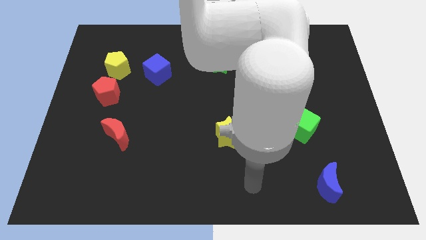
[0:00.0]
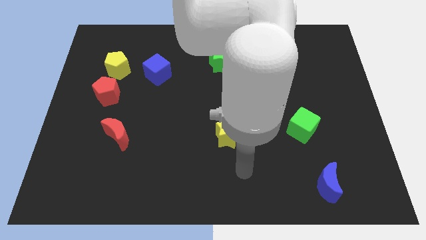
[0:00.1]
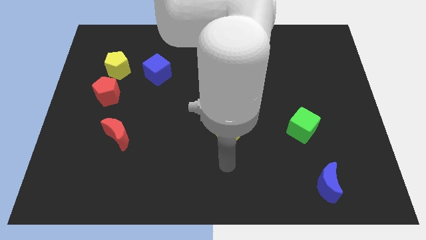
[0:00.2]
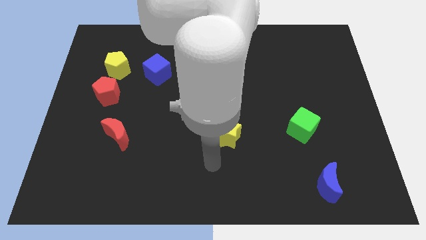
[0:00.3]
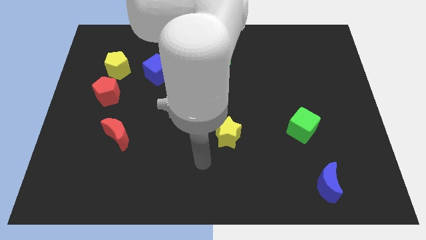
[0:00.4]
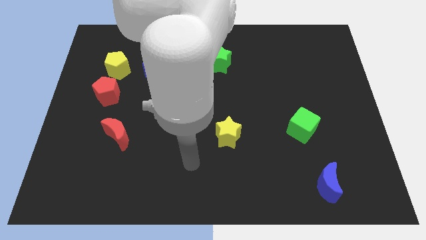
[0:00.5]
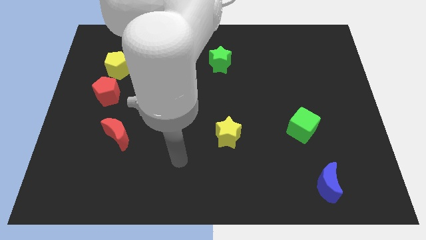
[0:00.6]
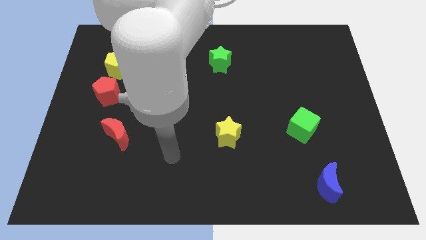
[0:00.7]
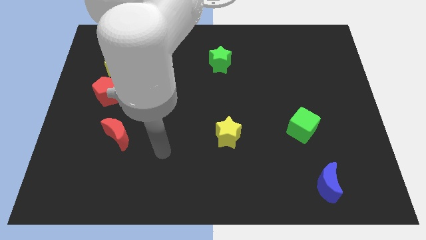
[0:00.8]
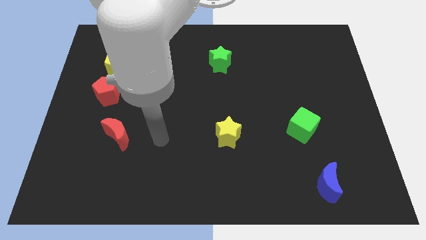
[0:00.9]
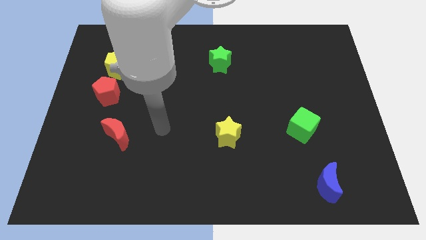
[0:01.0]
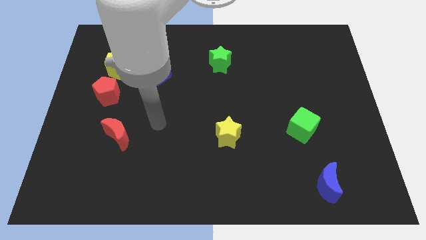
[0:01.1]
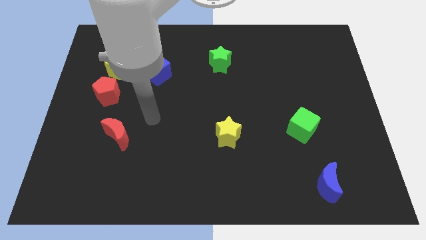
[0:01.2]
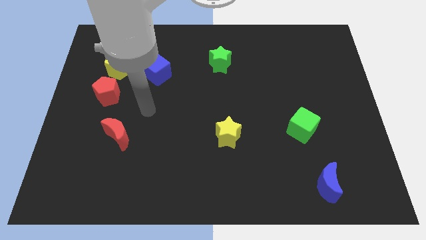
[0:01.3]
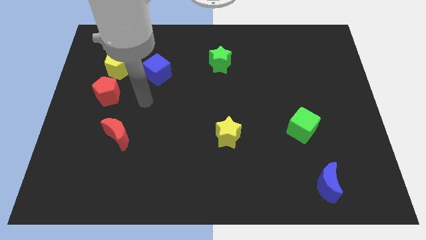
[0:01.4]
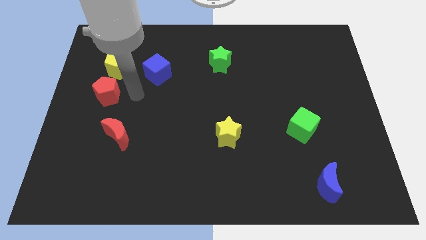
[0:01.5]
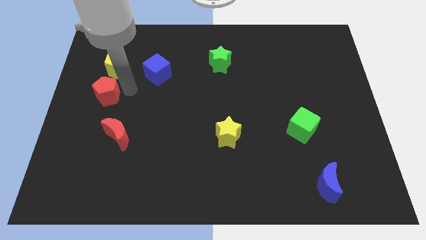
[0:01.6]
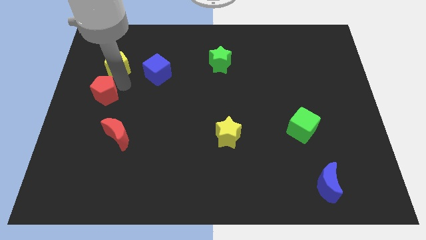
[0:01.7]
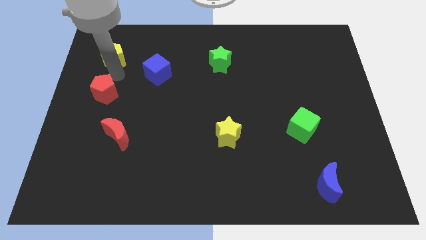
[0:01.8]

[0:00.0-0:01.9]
move the red pentagon away from the yellow pentagon

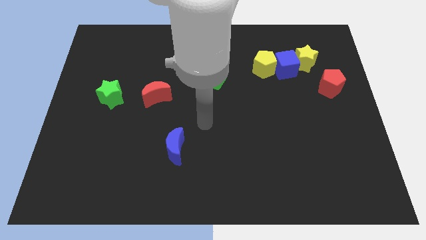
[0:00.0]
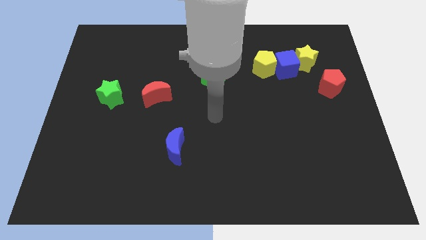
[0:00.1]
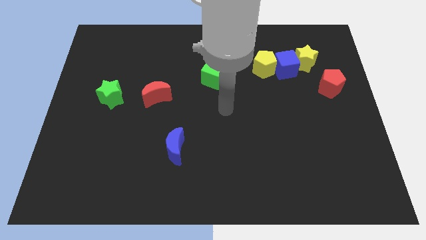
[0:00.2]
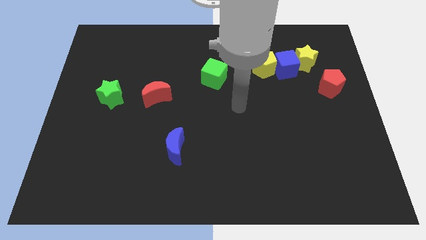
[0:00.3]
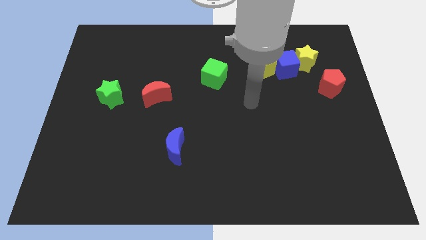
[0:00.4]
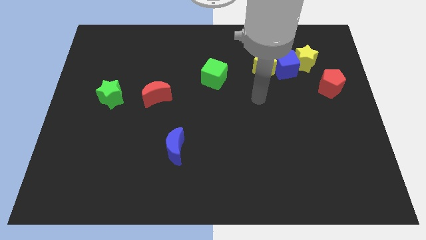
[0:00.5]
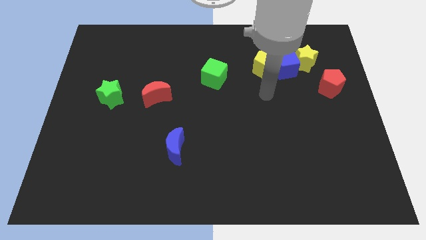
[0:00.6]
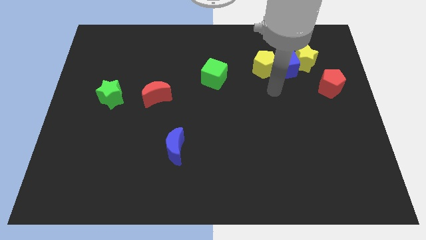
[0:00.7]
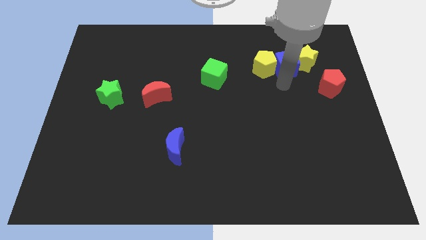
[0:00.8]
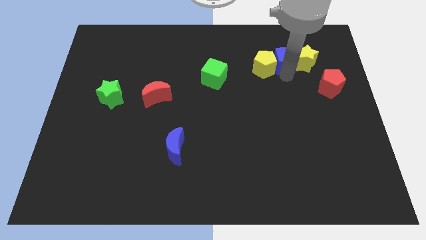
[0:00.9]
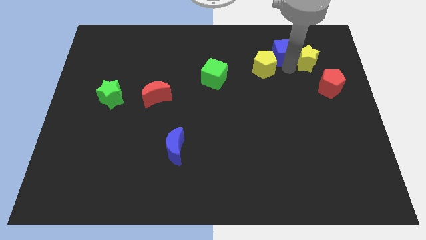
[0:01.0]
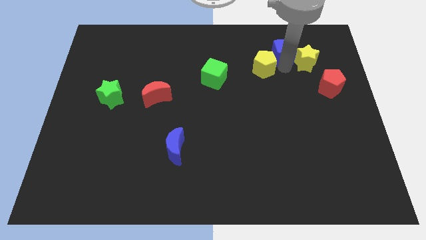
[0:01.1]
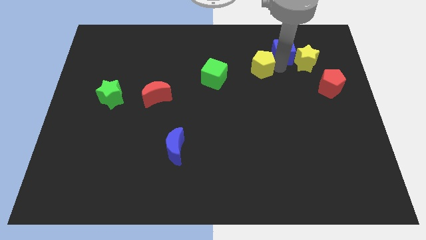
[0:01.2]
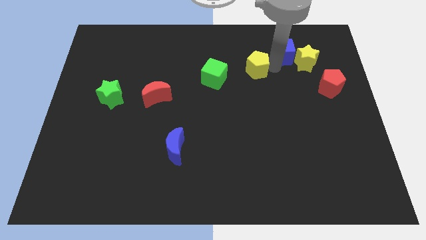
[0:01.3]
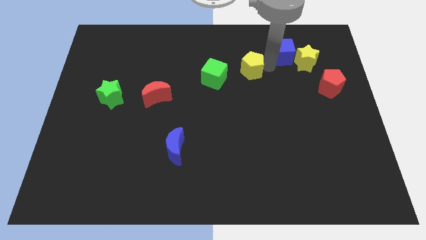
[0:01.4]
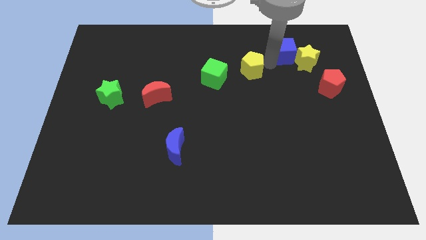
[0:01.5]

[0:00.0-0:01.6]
move the yellow pentagon away from the blue cube

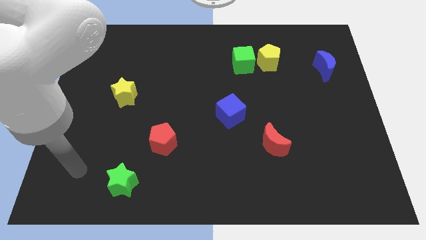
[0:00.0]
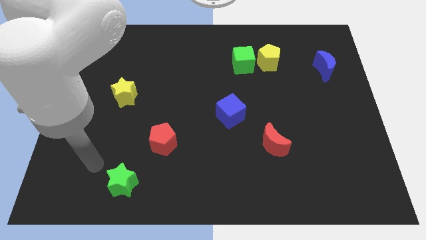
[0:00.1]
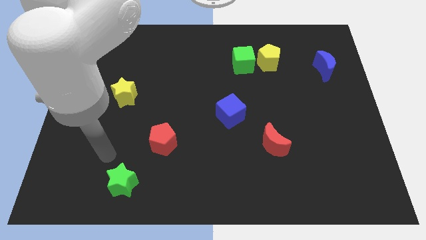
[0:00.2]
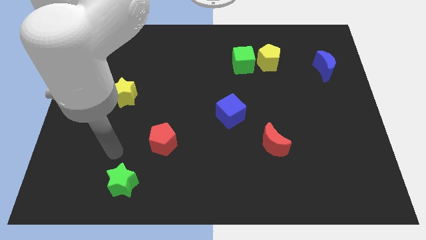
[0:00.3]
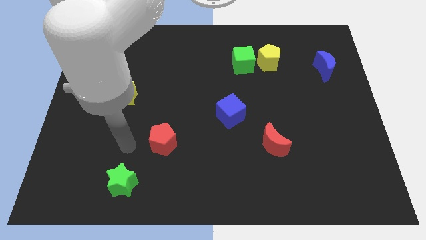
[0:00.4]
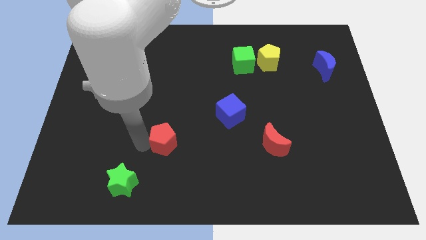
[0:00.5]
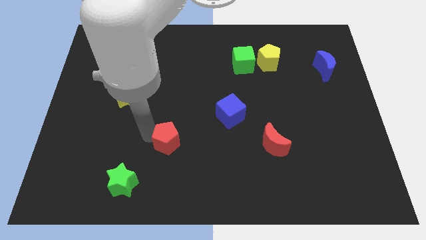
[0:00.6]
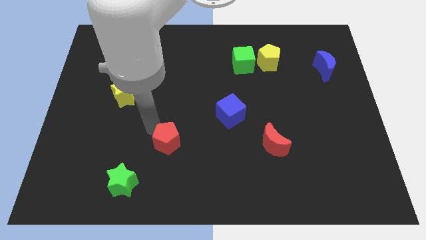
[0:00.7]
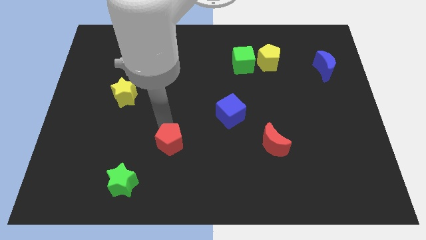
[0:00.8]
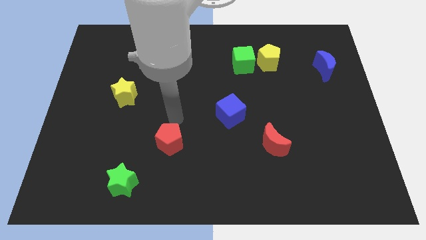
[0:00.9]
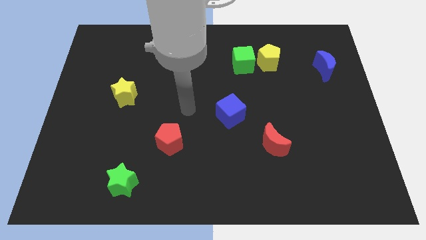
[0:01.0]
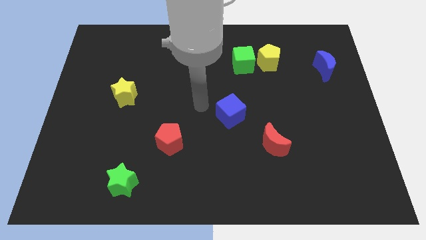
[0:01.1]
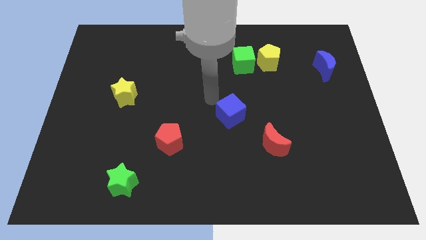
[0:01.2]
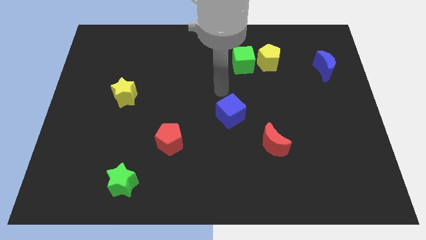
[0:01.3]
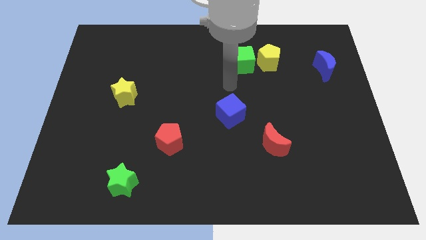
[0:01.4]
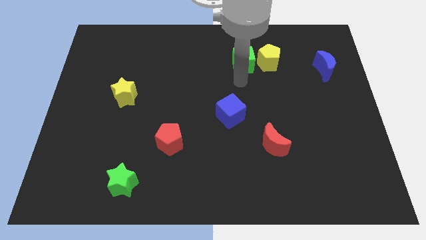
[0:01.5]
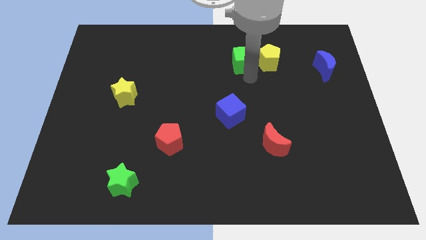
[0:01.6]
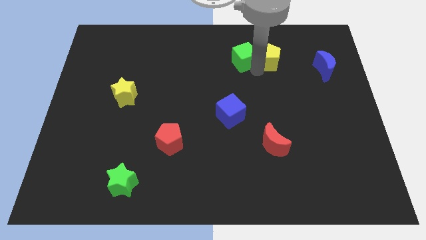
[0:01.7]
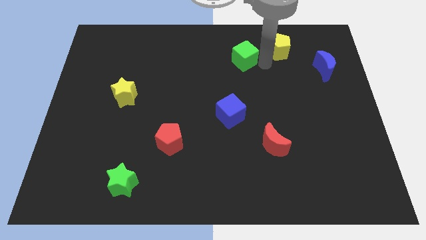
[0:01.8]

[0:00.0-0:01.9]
move the green cube away from the yellow pentagon

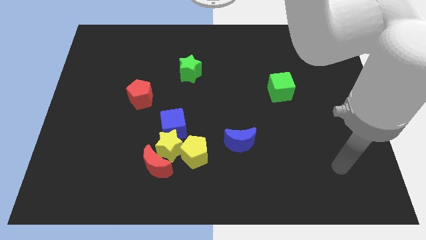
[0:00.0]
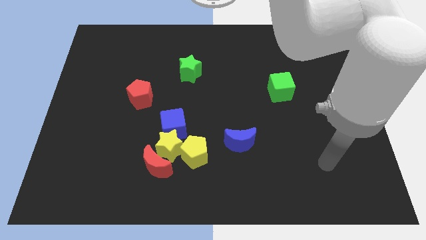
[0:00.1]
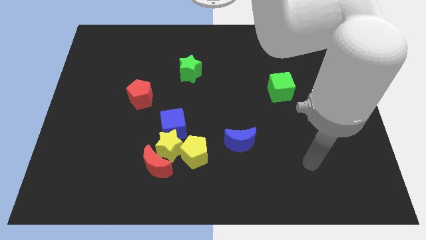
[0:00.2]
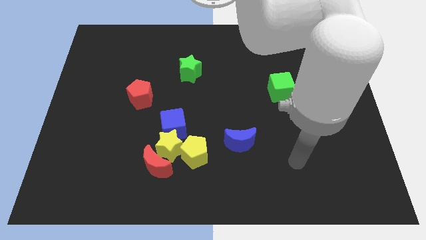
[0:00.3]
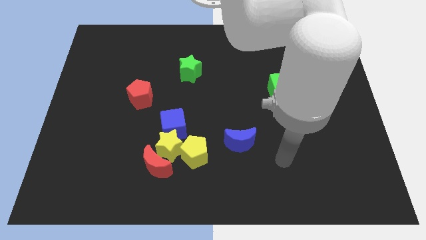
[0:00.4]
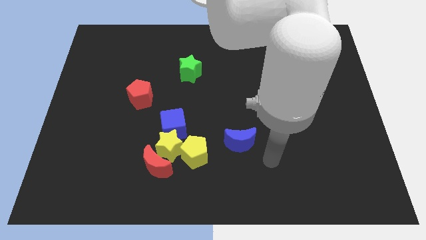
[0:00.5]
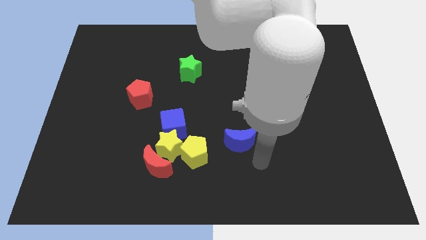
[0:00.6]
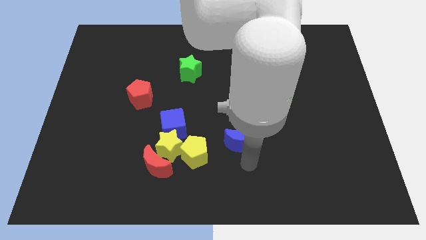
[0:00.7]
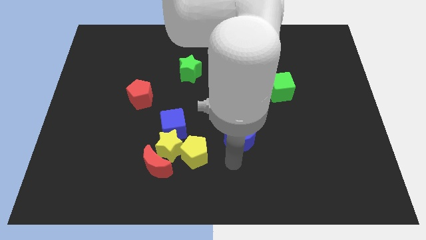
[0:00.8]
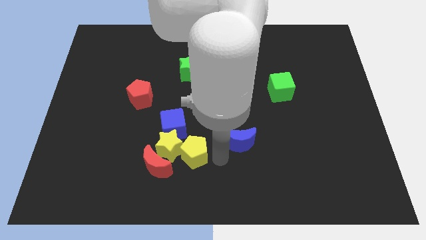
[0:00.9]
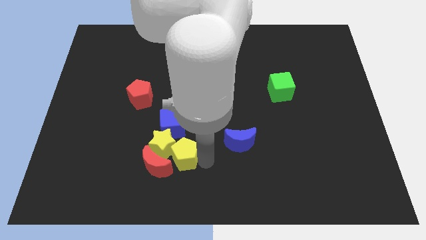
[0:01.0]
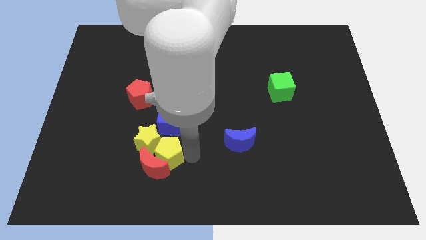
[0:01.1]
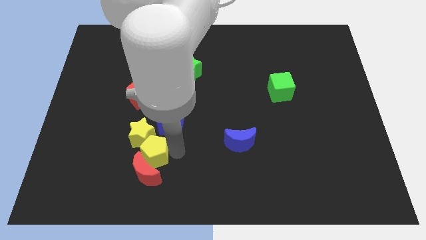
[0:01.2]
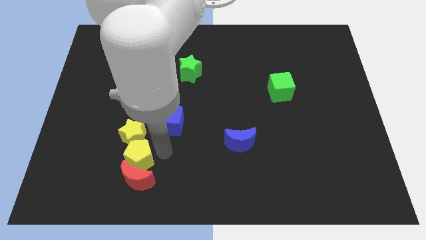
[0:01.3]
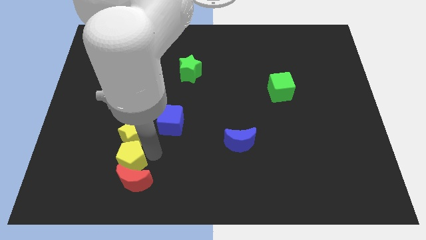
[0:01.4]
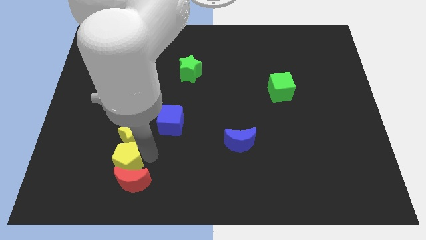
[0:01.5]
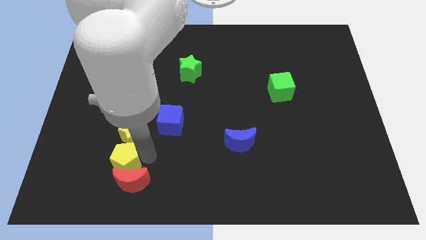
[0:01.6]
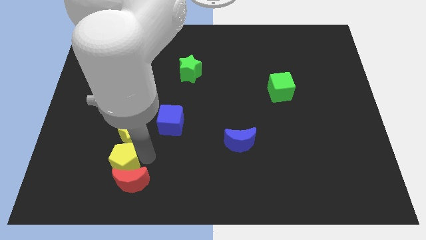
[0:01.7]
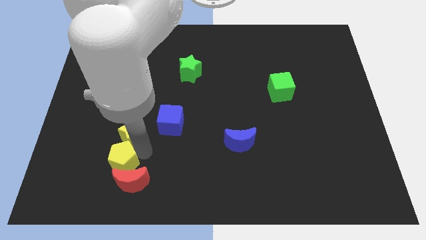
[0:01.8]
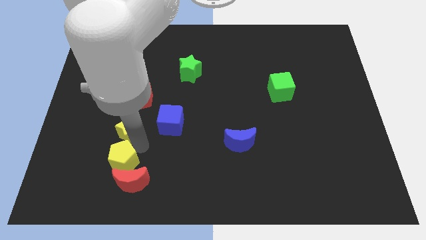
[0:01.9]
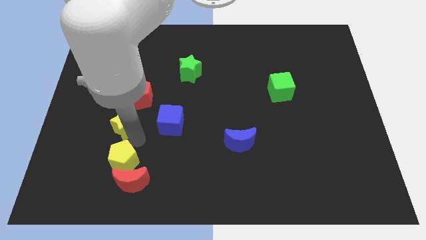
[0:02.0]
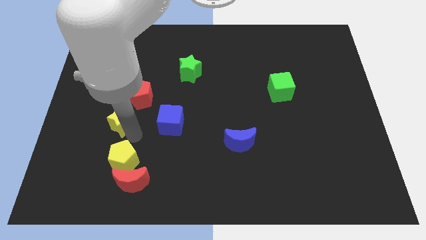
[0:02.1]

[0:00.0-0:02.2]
pull the yellow star apart from the group

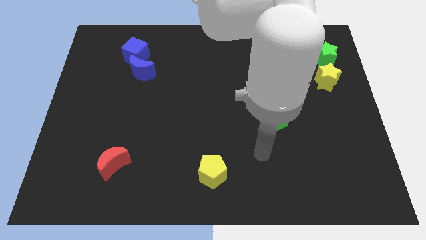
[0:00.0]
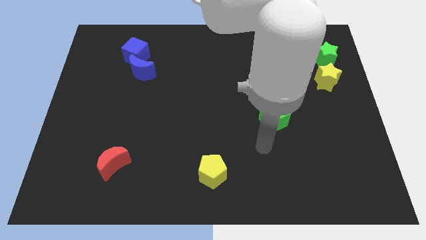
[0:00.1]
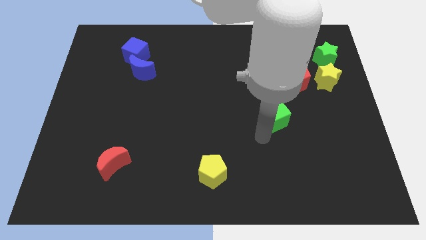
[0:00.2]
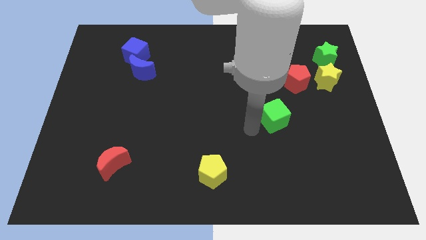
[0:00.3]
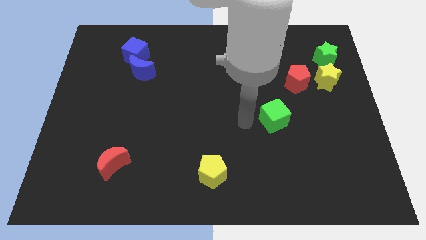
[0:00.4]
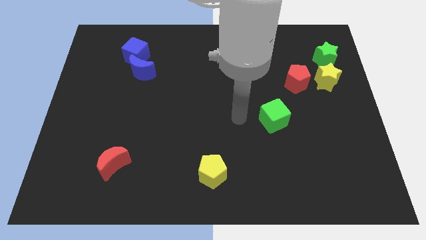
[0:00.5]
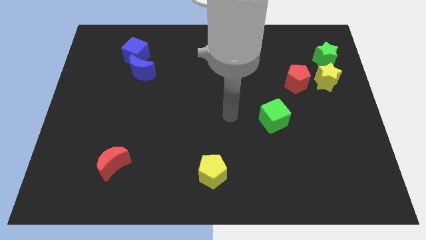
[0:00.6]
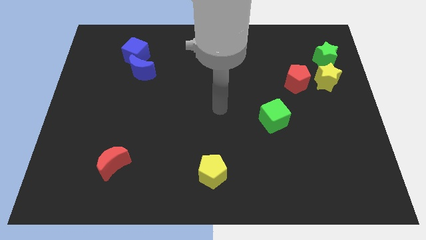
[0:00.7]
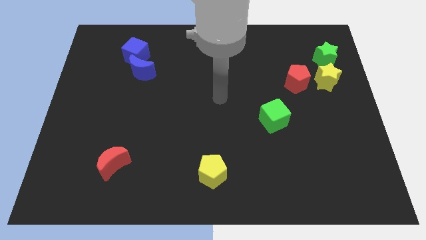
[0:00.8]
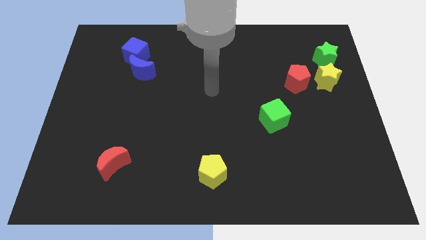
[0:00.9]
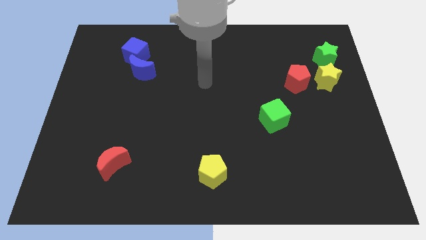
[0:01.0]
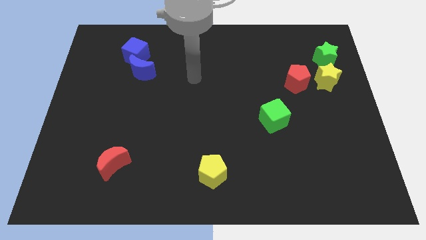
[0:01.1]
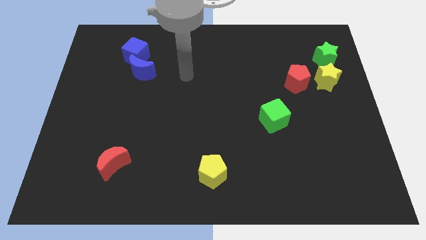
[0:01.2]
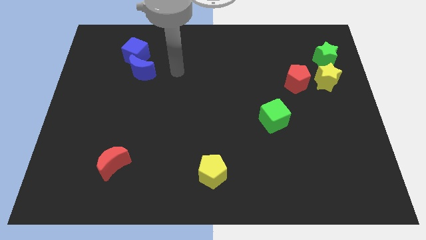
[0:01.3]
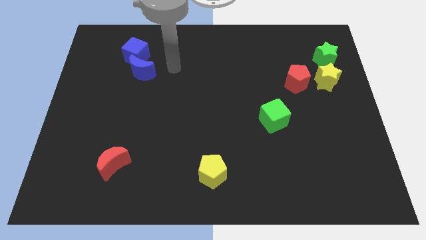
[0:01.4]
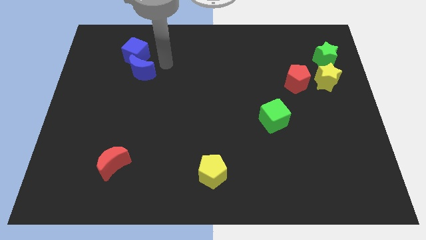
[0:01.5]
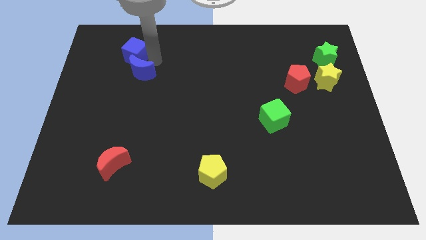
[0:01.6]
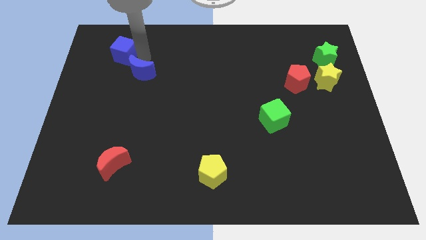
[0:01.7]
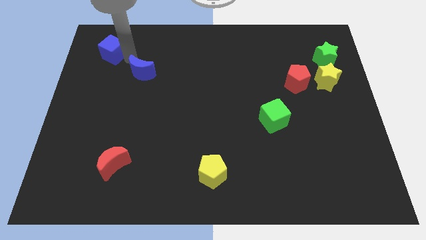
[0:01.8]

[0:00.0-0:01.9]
pull the blue moon apart from the blue cube
